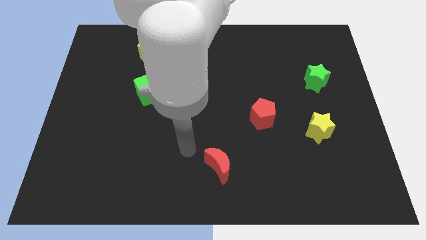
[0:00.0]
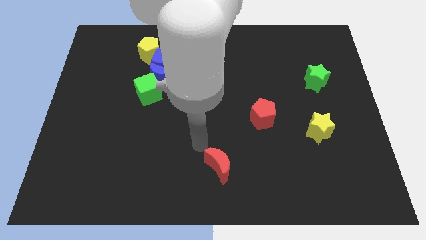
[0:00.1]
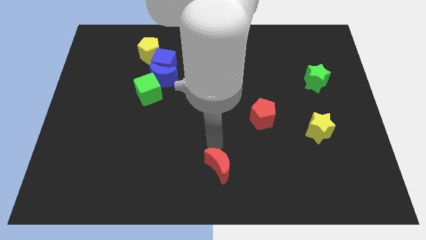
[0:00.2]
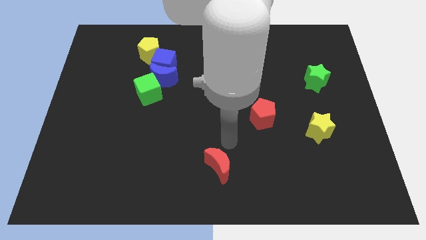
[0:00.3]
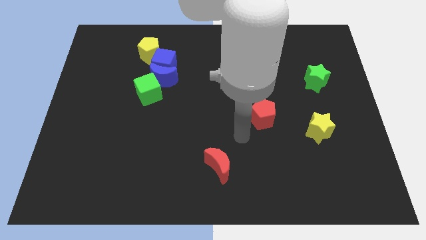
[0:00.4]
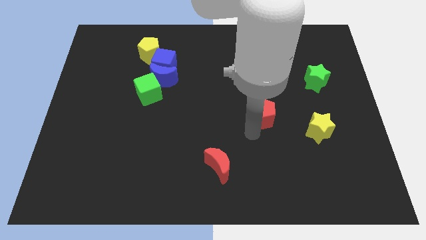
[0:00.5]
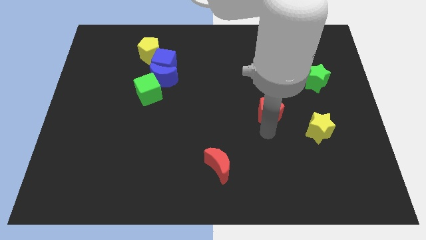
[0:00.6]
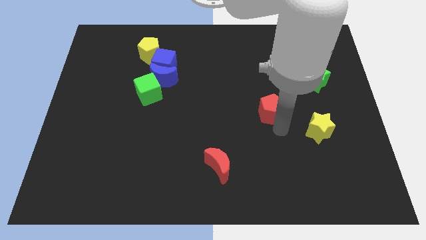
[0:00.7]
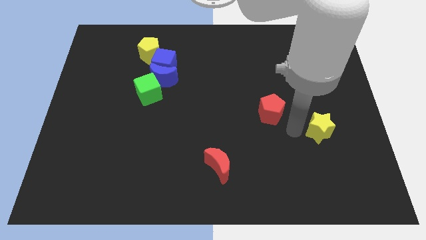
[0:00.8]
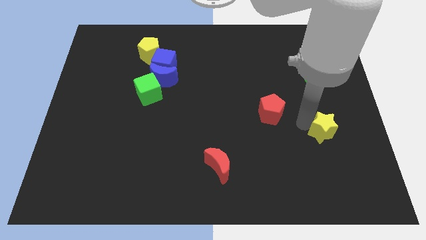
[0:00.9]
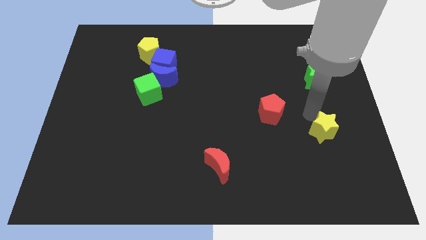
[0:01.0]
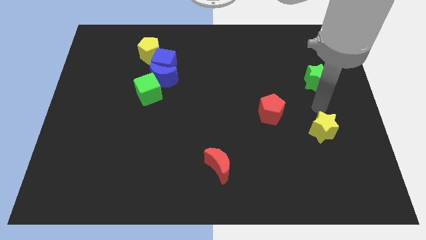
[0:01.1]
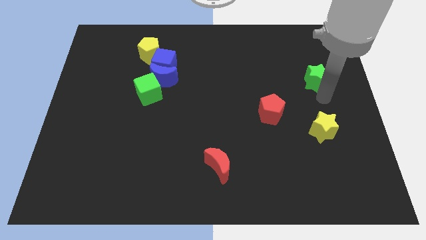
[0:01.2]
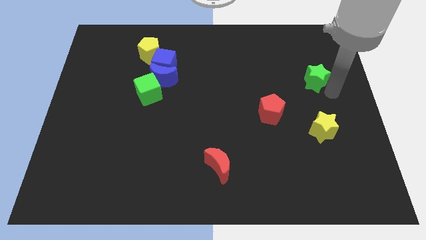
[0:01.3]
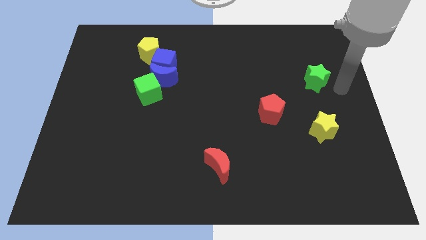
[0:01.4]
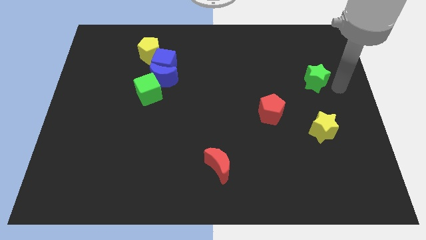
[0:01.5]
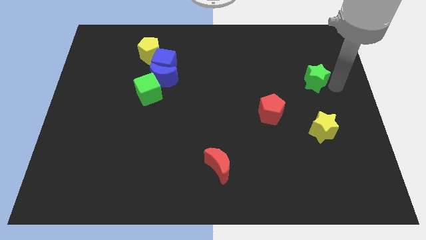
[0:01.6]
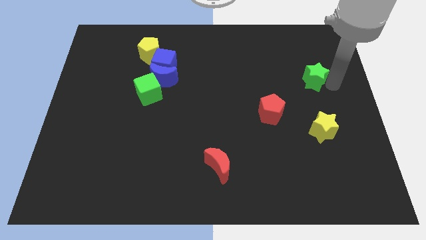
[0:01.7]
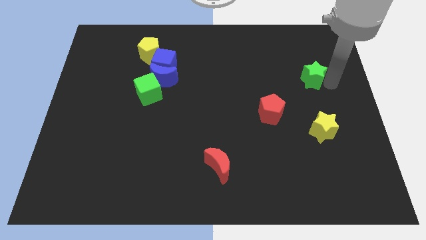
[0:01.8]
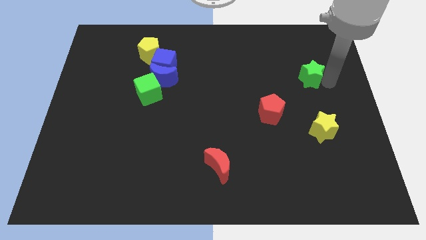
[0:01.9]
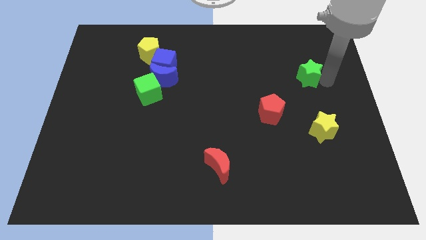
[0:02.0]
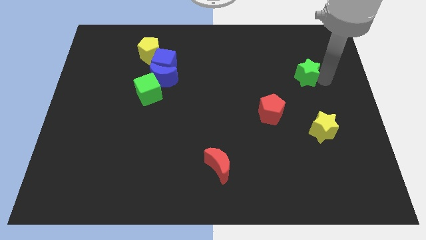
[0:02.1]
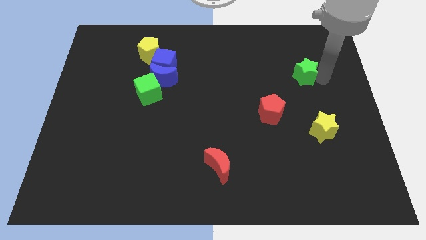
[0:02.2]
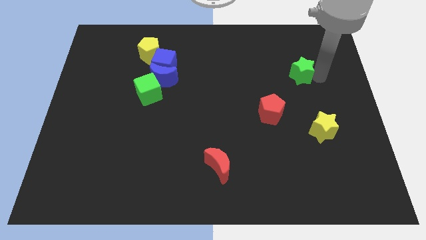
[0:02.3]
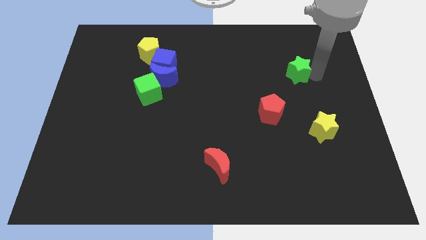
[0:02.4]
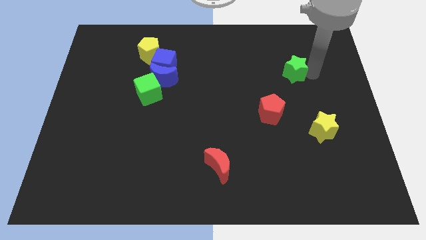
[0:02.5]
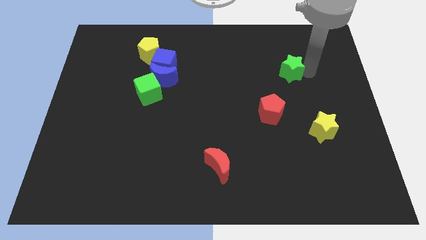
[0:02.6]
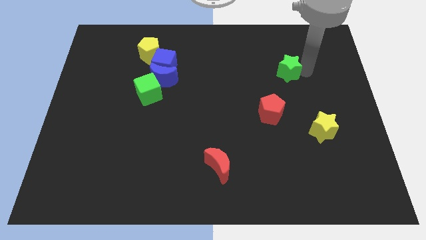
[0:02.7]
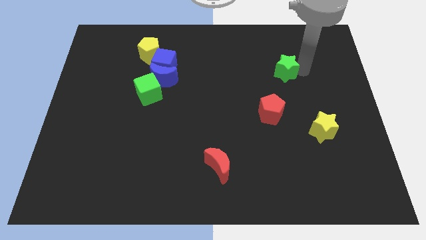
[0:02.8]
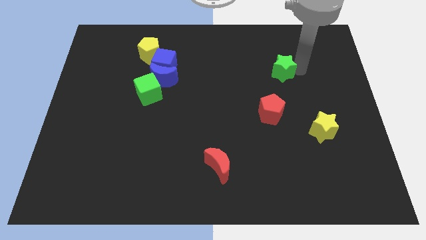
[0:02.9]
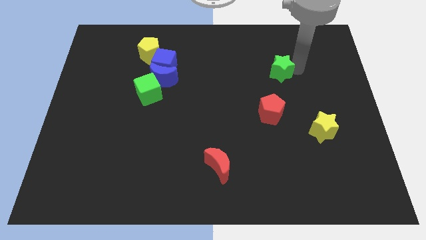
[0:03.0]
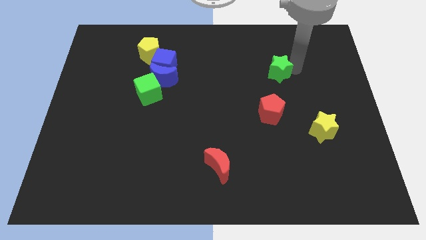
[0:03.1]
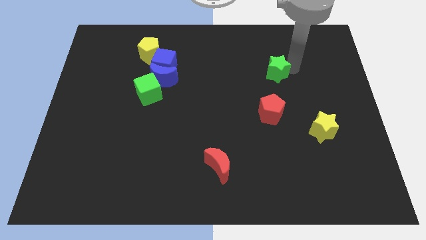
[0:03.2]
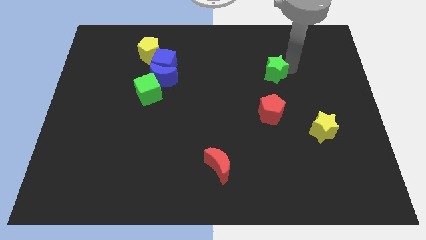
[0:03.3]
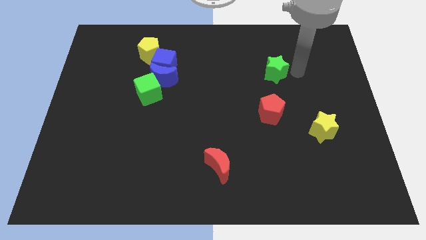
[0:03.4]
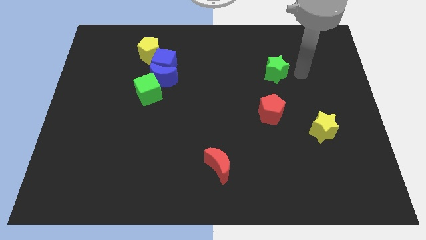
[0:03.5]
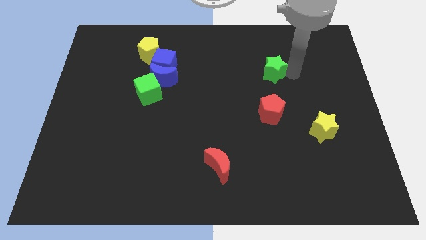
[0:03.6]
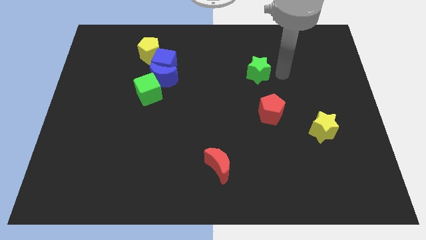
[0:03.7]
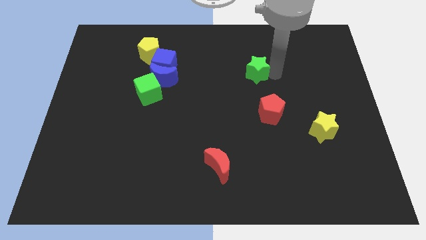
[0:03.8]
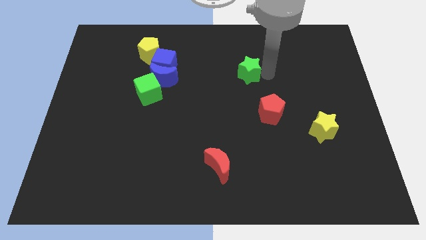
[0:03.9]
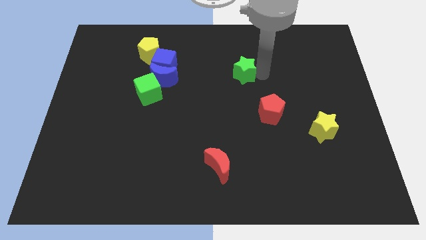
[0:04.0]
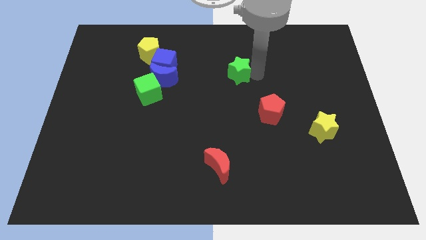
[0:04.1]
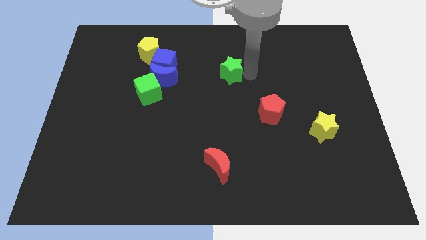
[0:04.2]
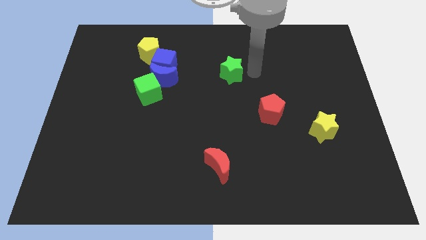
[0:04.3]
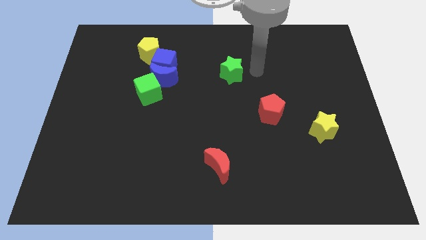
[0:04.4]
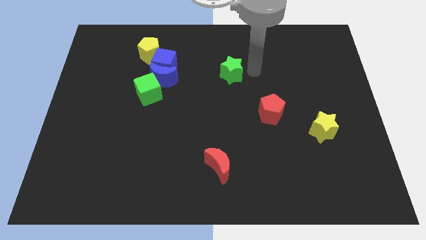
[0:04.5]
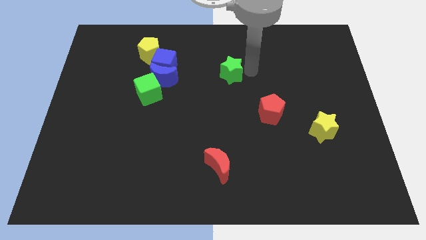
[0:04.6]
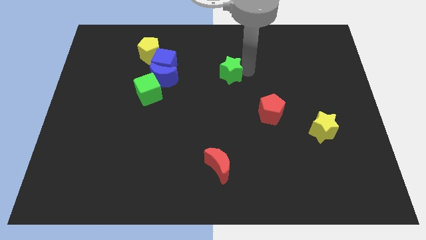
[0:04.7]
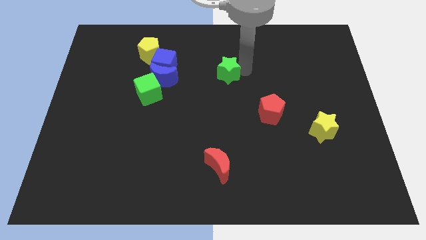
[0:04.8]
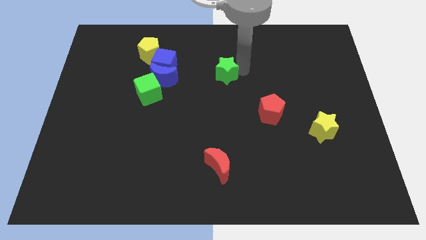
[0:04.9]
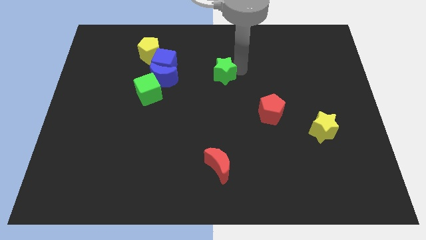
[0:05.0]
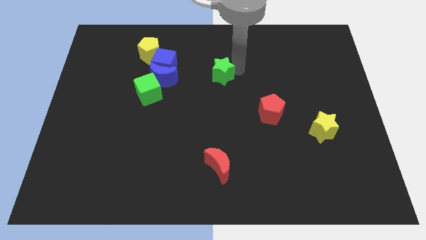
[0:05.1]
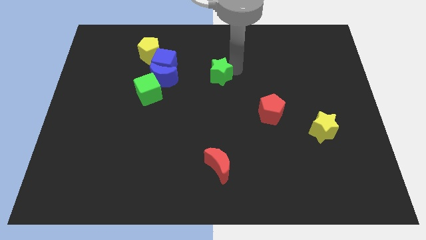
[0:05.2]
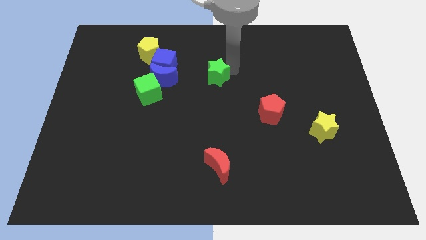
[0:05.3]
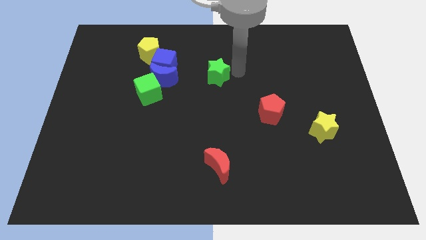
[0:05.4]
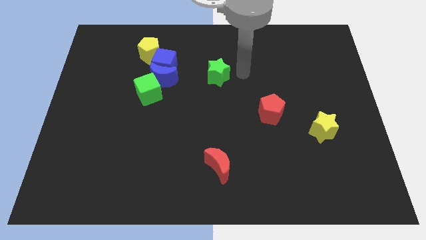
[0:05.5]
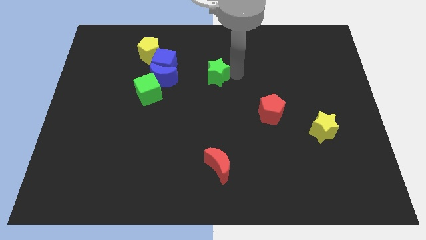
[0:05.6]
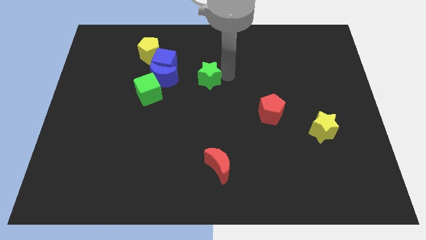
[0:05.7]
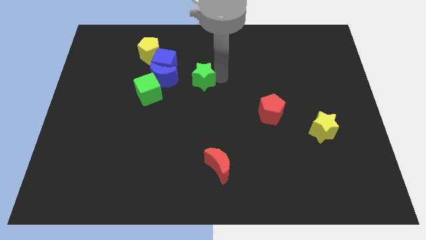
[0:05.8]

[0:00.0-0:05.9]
slide the green star diagonally down and to the right of the blue cube

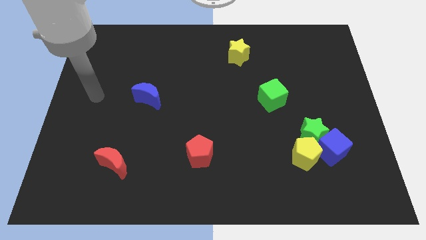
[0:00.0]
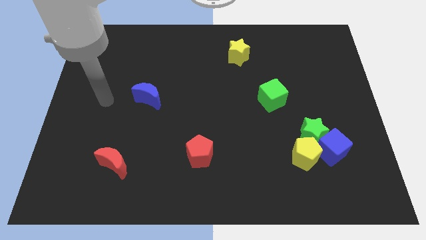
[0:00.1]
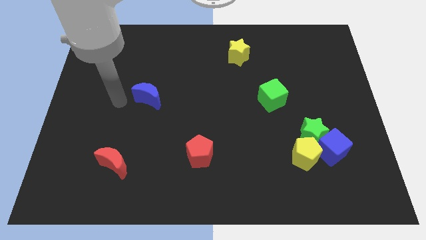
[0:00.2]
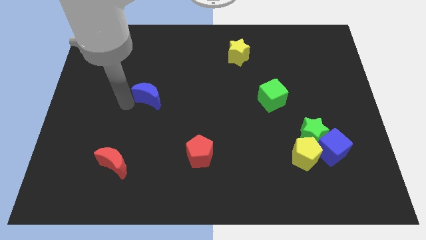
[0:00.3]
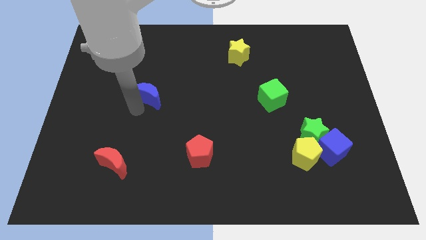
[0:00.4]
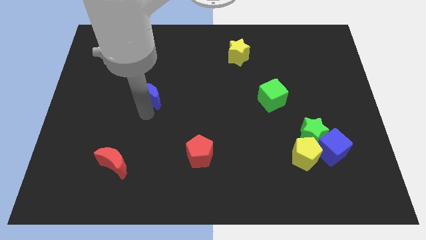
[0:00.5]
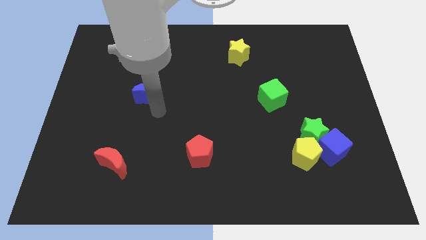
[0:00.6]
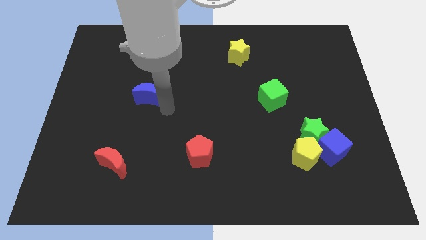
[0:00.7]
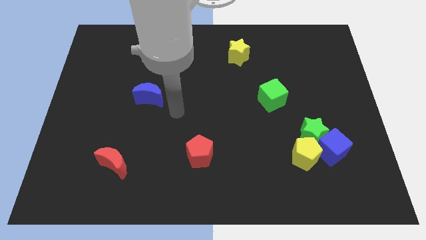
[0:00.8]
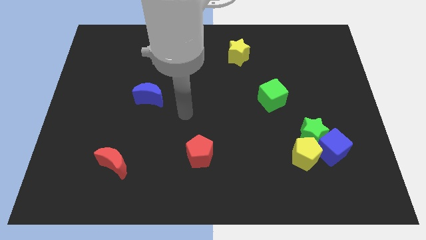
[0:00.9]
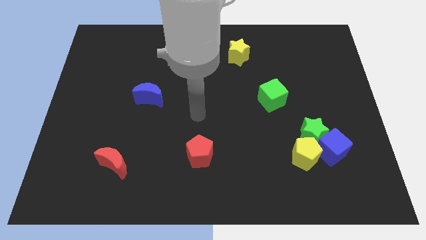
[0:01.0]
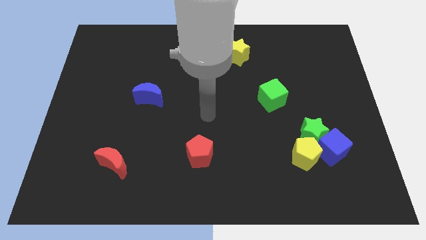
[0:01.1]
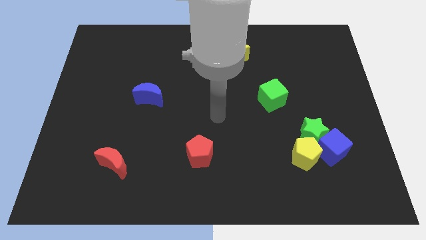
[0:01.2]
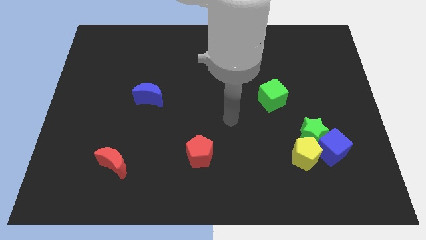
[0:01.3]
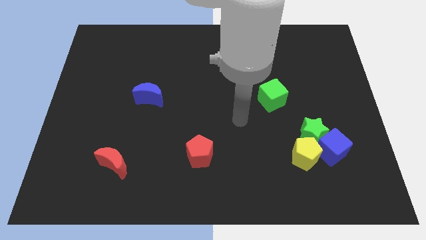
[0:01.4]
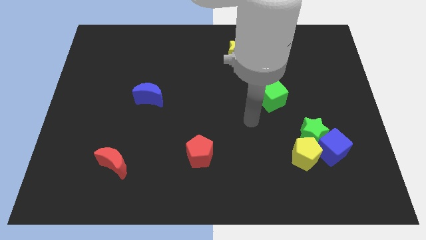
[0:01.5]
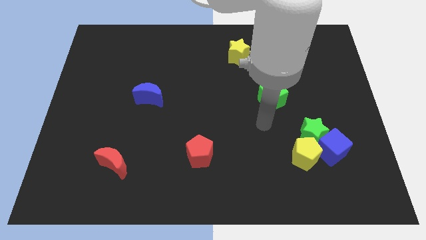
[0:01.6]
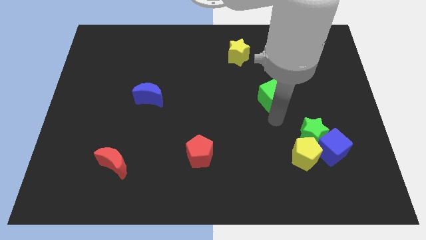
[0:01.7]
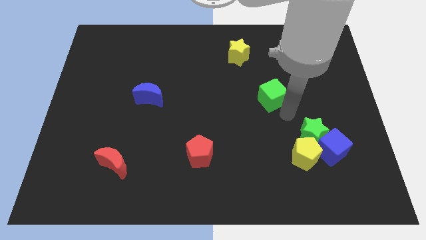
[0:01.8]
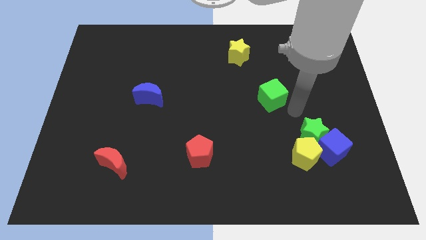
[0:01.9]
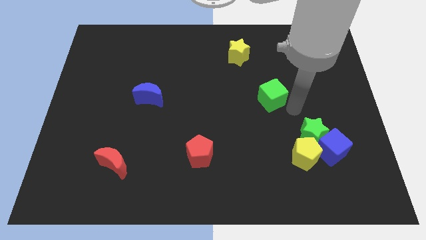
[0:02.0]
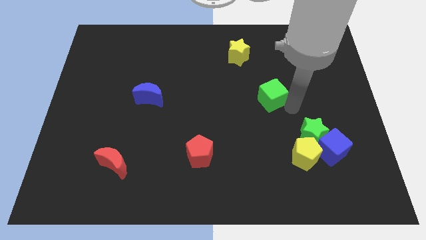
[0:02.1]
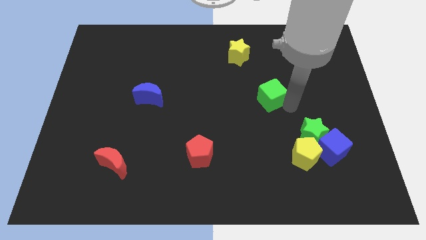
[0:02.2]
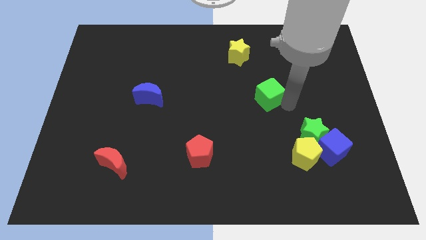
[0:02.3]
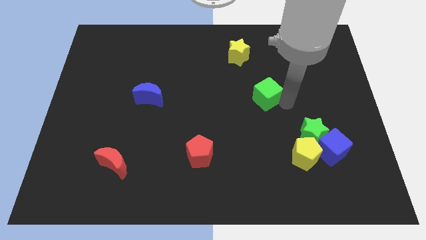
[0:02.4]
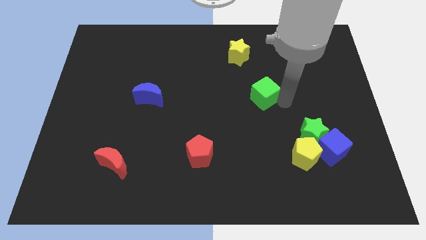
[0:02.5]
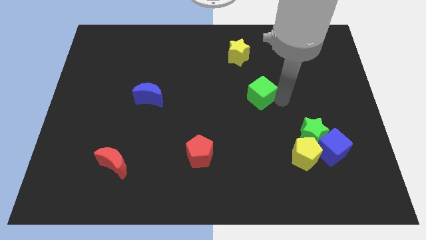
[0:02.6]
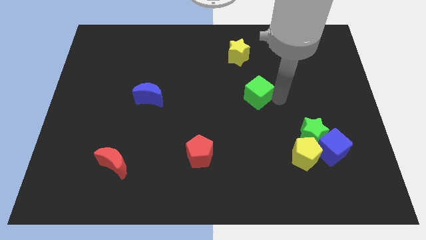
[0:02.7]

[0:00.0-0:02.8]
slide the green cube to the bottom side of the yellow star
